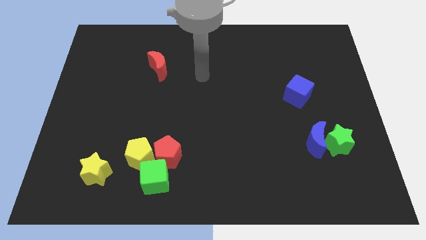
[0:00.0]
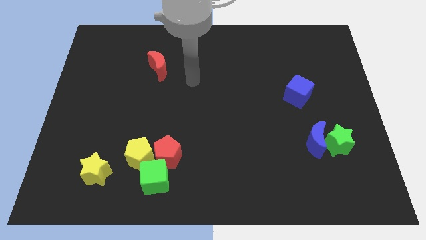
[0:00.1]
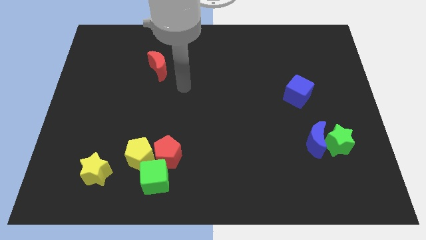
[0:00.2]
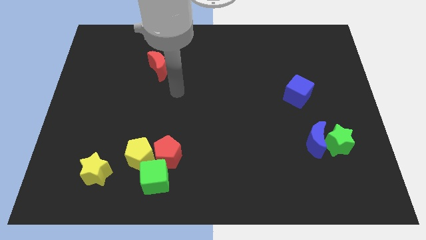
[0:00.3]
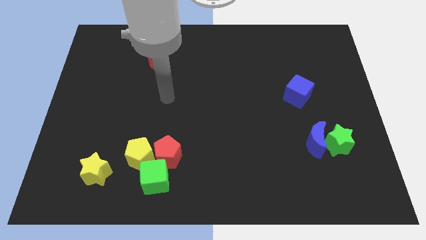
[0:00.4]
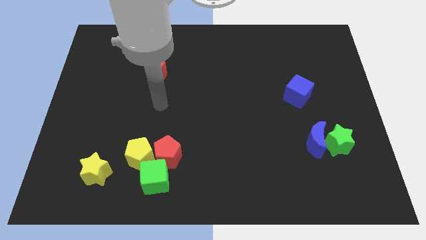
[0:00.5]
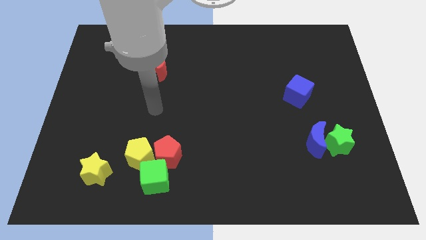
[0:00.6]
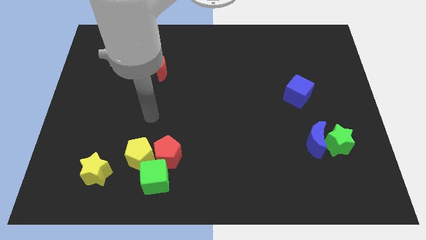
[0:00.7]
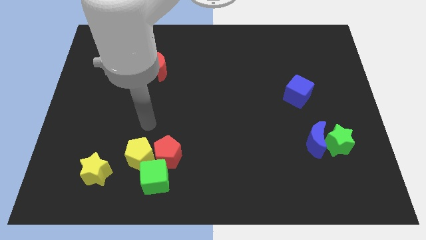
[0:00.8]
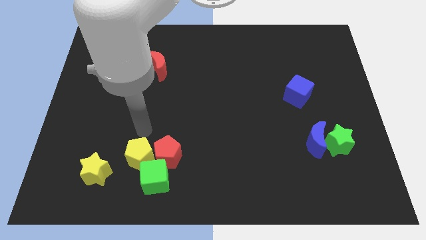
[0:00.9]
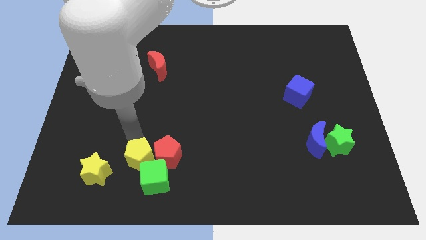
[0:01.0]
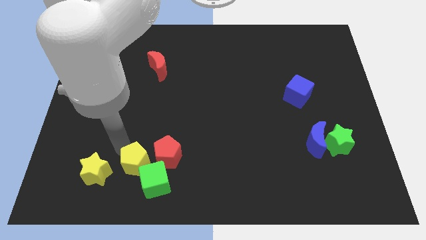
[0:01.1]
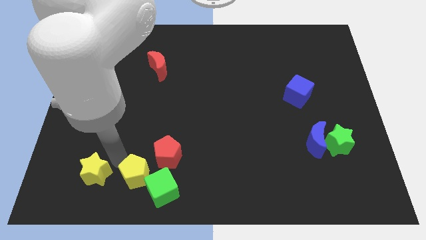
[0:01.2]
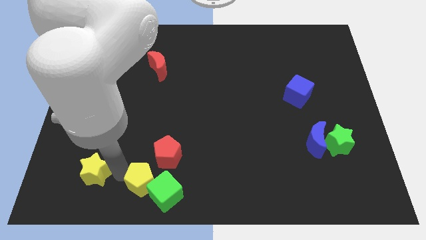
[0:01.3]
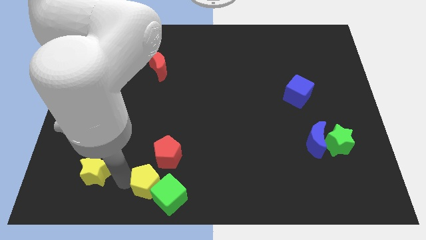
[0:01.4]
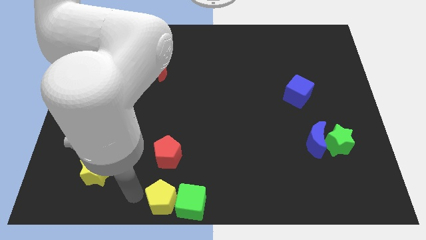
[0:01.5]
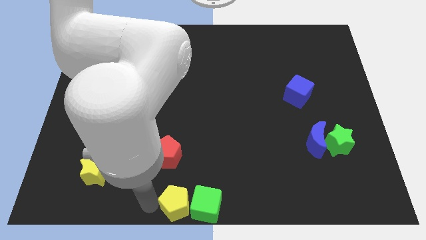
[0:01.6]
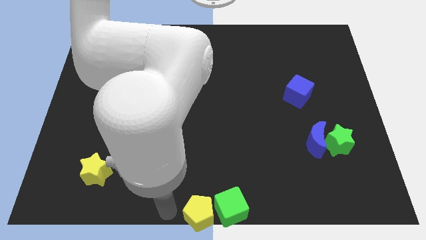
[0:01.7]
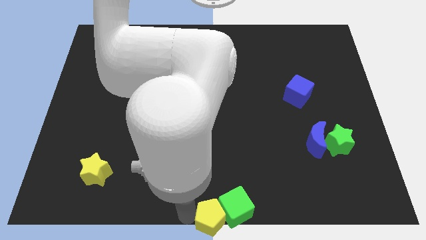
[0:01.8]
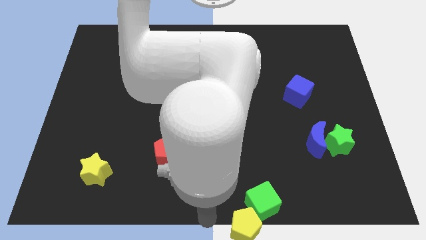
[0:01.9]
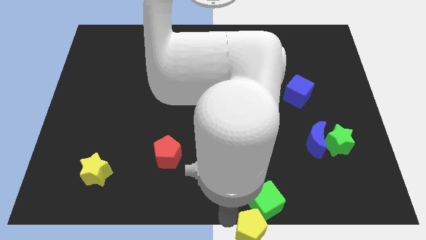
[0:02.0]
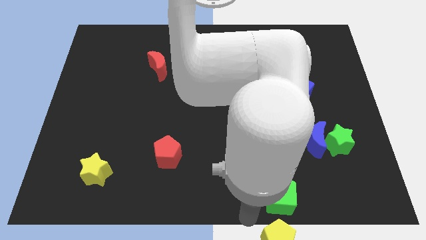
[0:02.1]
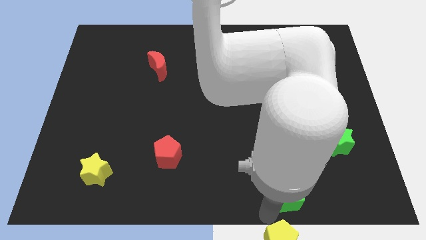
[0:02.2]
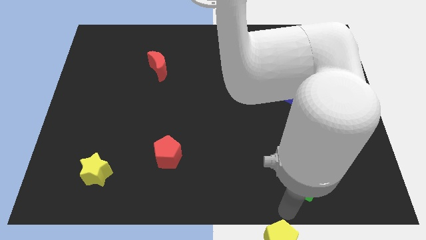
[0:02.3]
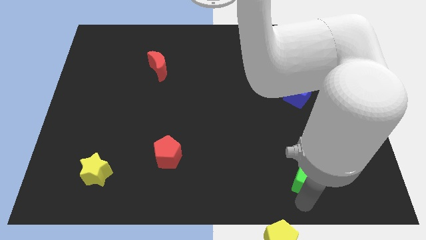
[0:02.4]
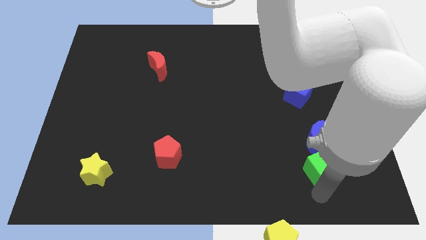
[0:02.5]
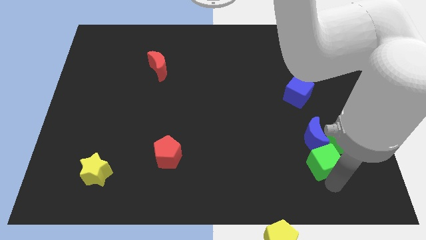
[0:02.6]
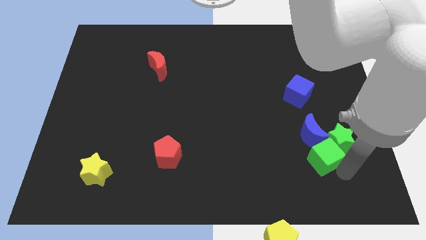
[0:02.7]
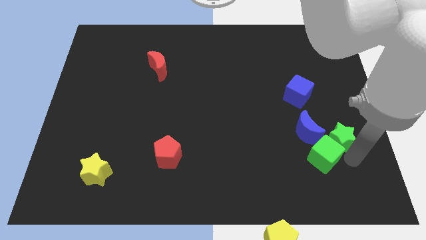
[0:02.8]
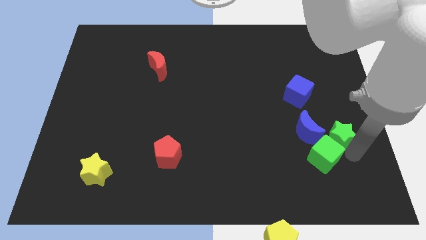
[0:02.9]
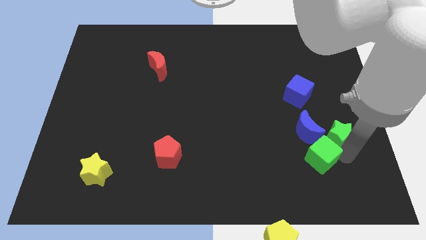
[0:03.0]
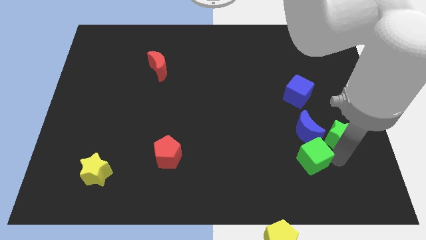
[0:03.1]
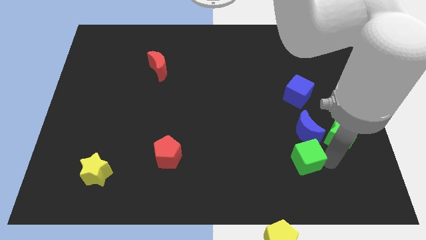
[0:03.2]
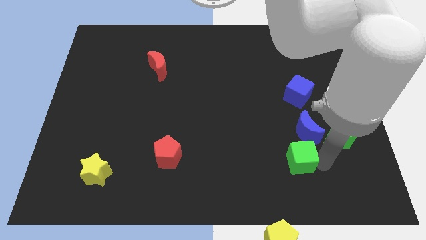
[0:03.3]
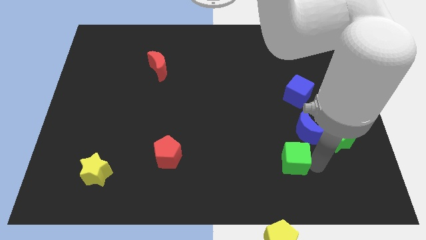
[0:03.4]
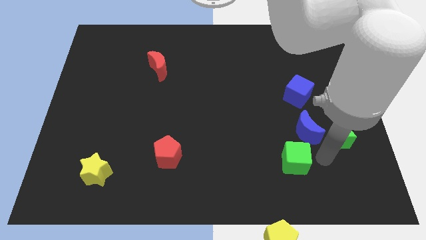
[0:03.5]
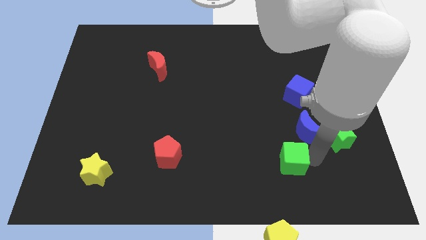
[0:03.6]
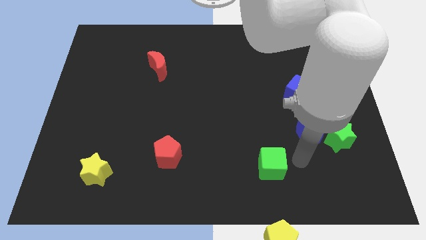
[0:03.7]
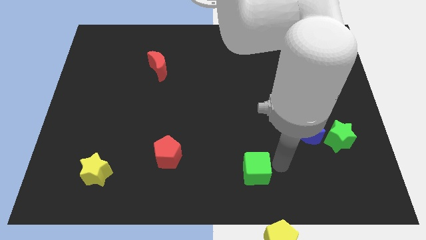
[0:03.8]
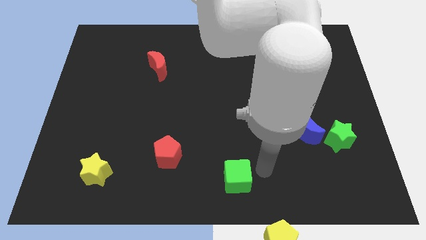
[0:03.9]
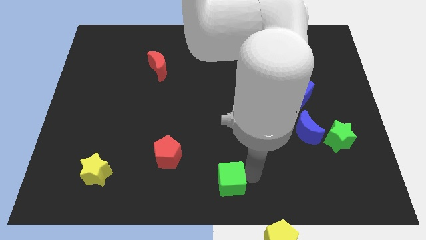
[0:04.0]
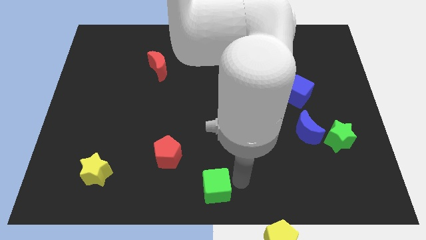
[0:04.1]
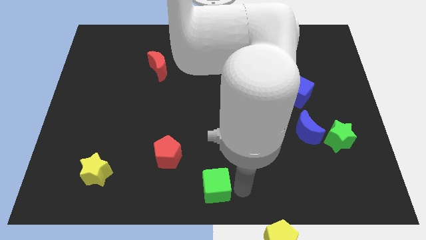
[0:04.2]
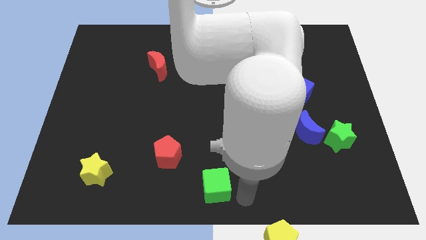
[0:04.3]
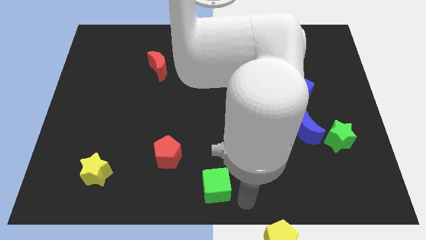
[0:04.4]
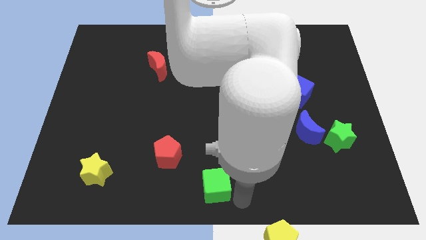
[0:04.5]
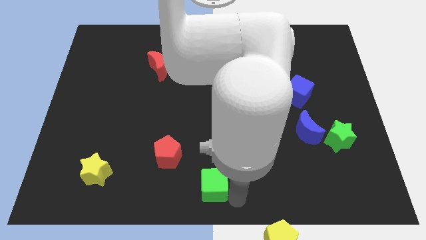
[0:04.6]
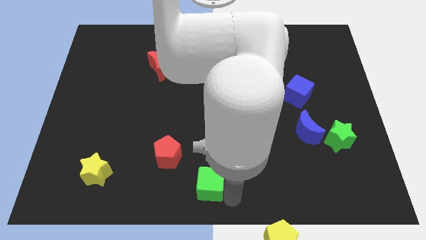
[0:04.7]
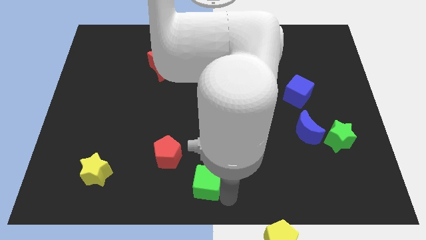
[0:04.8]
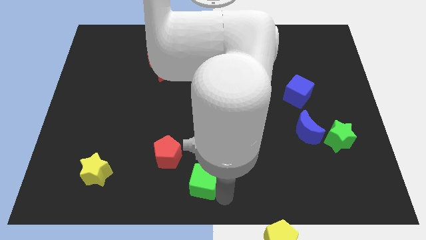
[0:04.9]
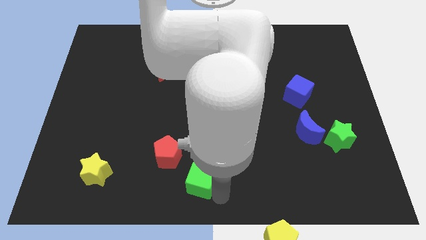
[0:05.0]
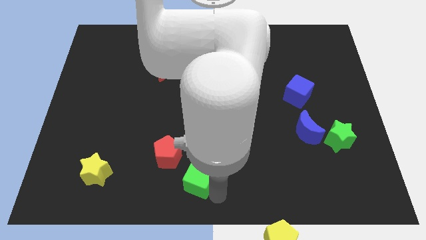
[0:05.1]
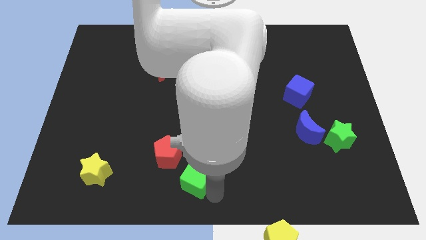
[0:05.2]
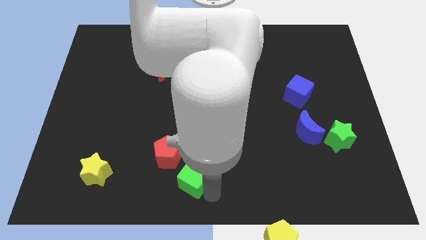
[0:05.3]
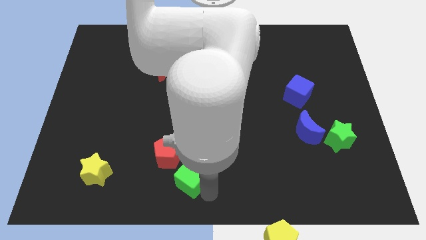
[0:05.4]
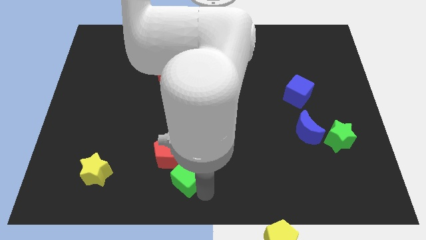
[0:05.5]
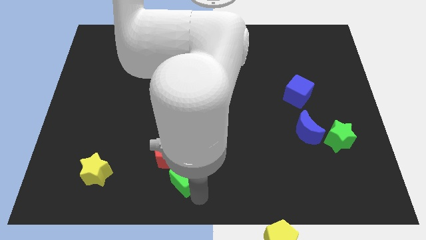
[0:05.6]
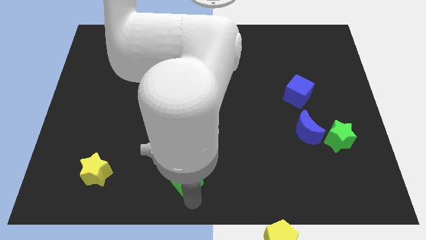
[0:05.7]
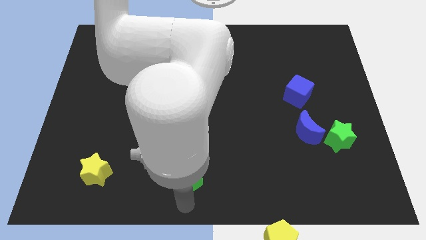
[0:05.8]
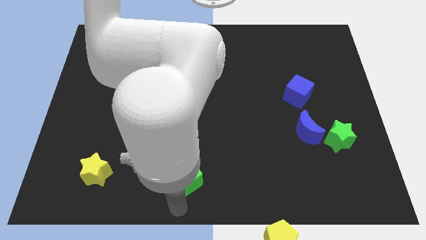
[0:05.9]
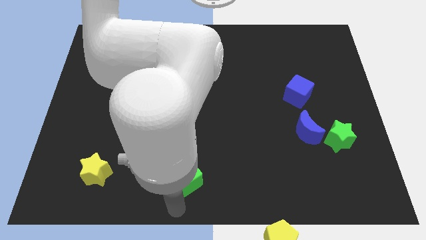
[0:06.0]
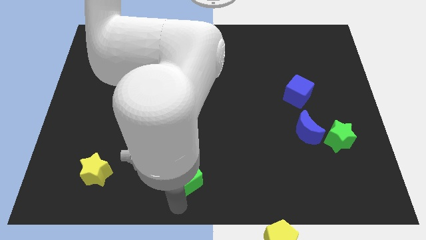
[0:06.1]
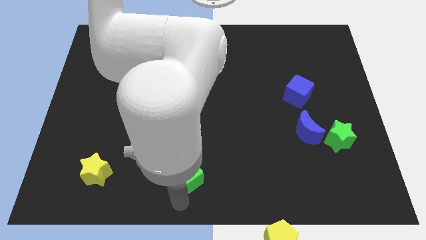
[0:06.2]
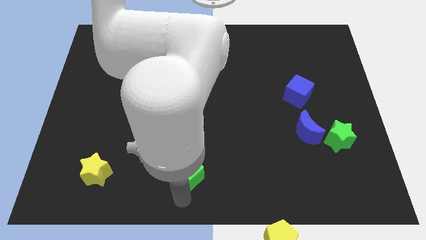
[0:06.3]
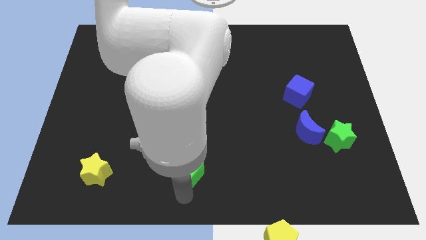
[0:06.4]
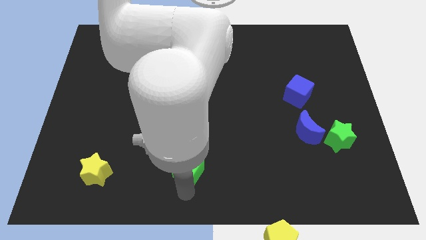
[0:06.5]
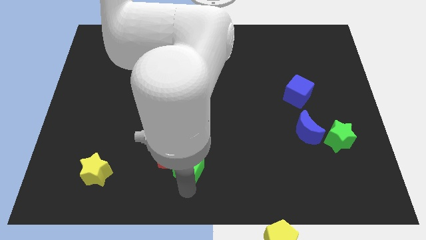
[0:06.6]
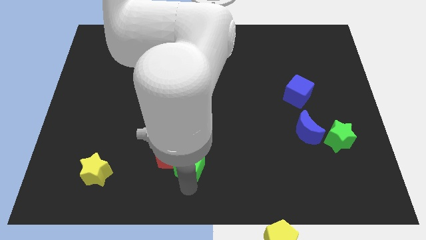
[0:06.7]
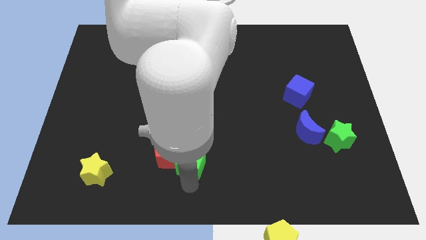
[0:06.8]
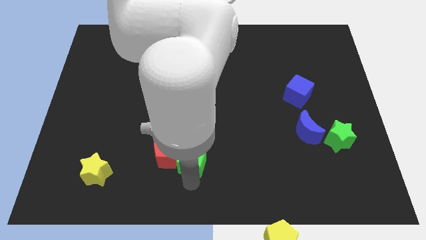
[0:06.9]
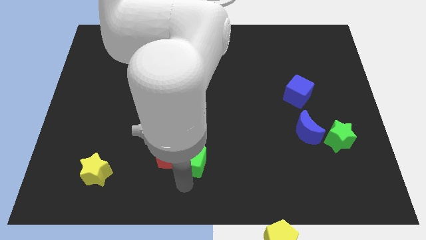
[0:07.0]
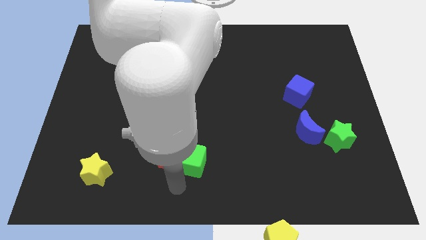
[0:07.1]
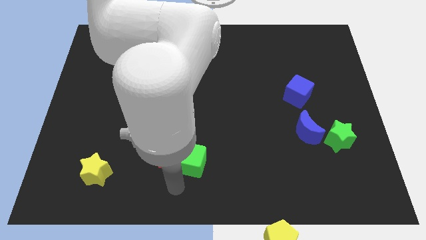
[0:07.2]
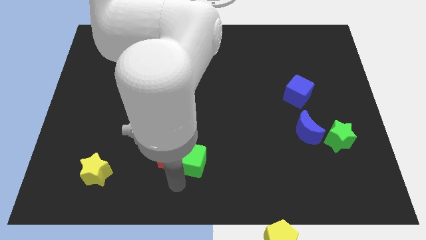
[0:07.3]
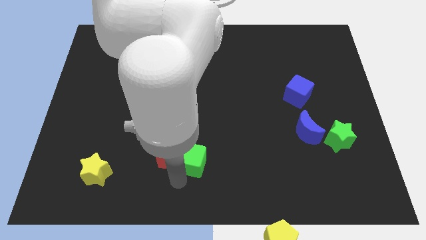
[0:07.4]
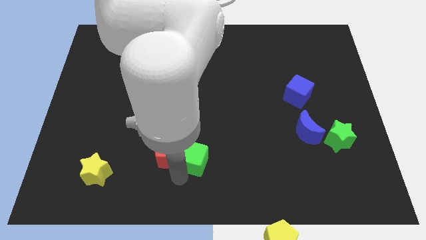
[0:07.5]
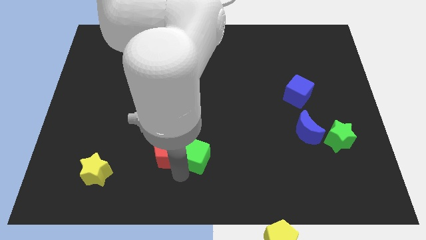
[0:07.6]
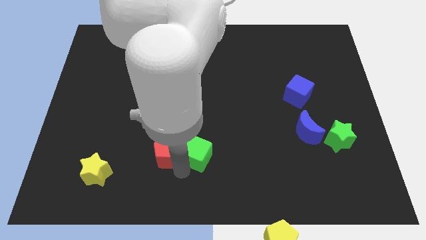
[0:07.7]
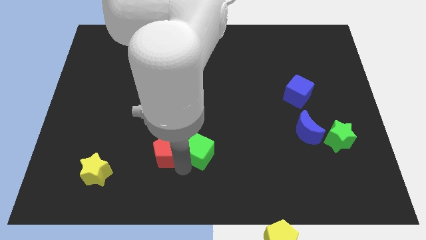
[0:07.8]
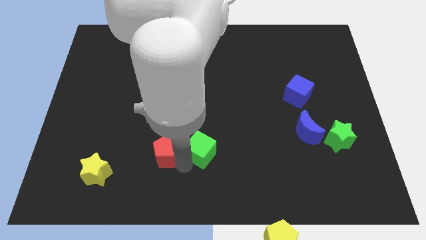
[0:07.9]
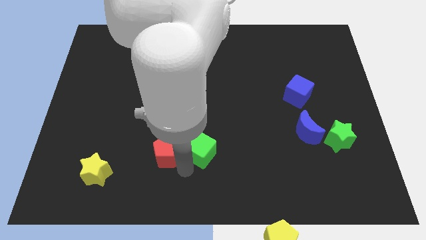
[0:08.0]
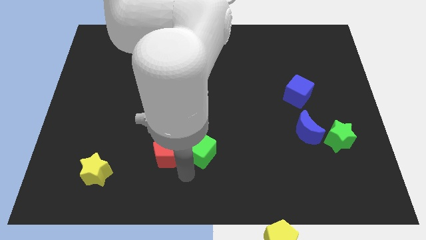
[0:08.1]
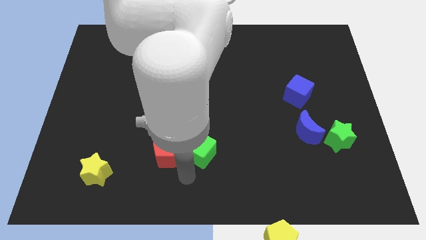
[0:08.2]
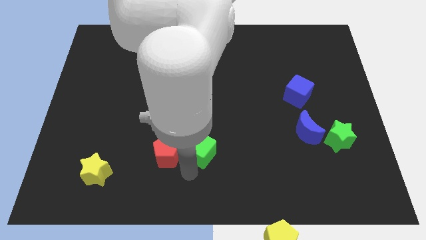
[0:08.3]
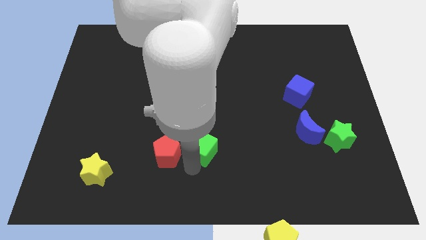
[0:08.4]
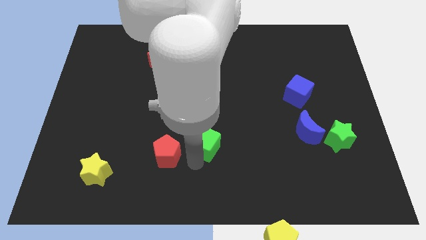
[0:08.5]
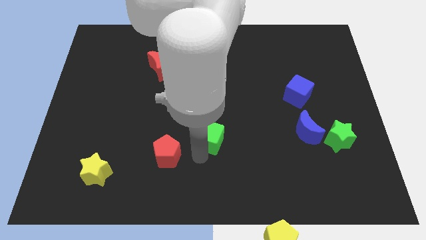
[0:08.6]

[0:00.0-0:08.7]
slide the green cube to the middle
